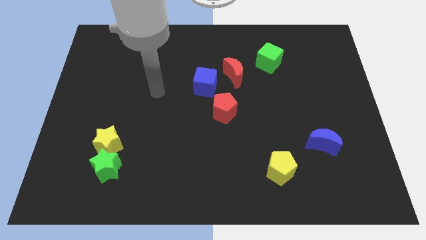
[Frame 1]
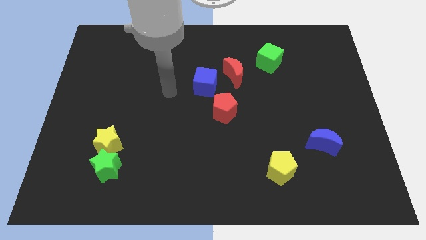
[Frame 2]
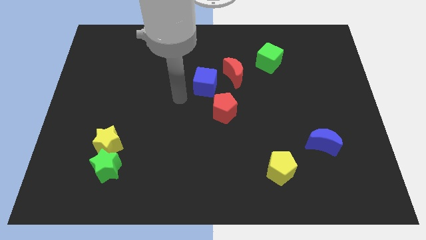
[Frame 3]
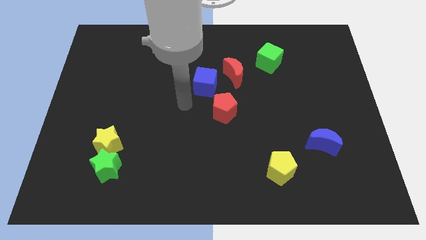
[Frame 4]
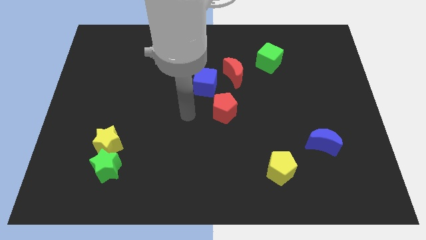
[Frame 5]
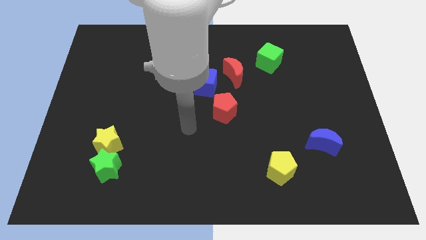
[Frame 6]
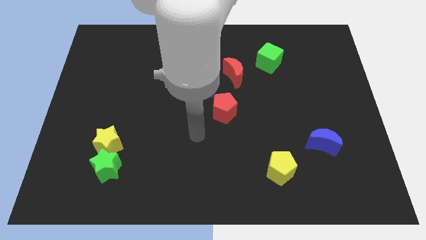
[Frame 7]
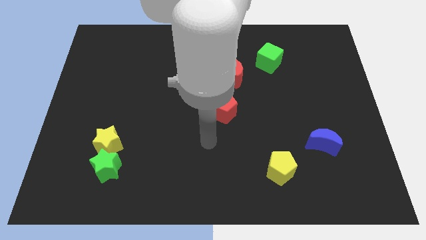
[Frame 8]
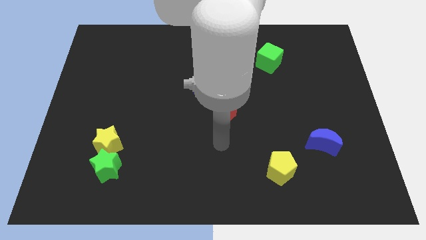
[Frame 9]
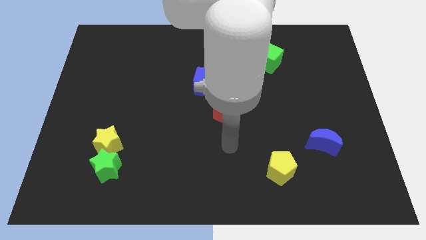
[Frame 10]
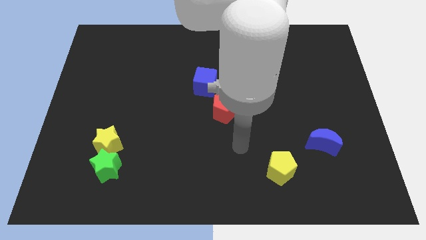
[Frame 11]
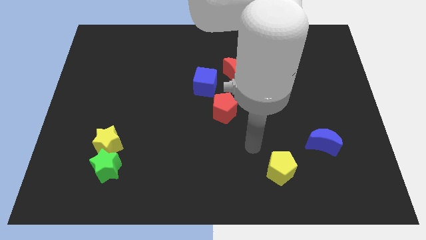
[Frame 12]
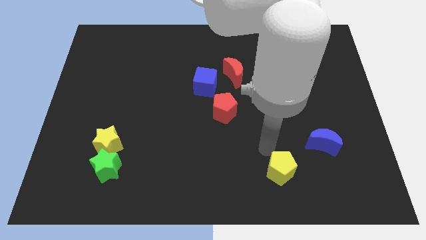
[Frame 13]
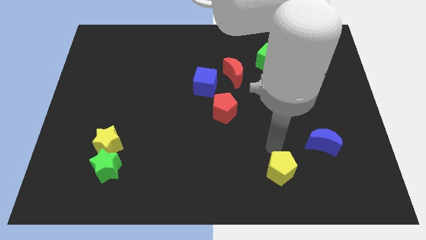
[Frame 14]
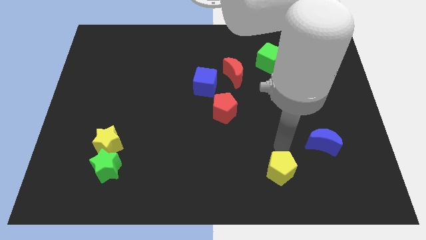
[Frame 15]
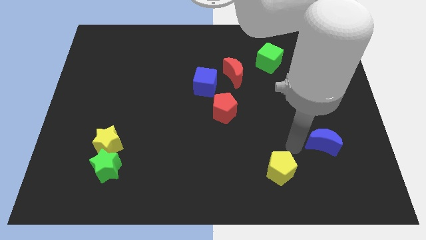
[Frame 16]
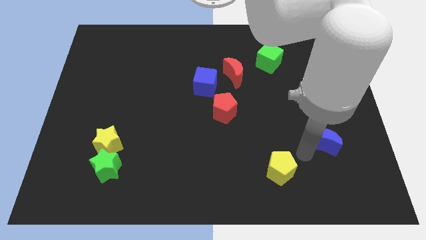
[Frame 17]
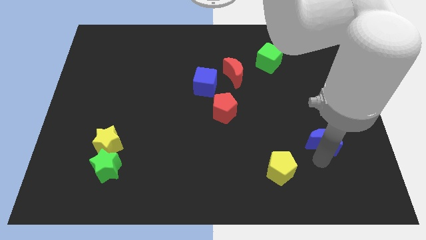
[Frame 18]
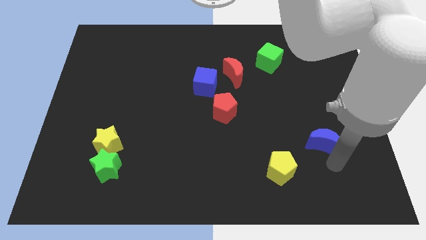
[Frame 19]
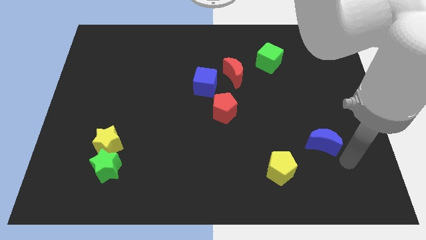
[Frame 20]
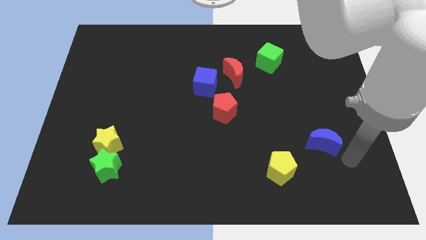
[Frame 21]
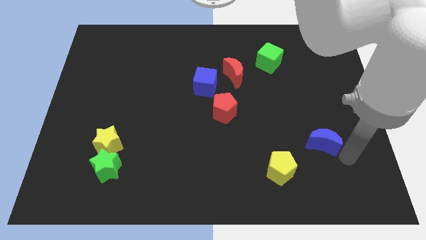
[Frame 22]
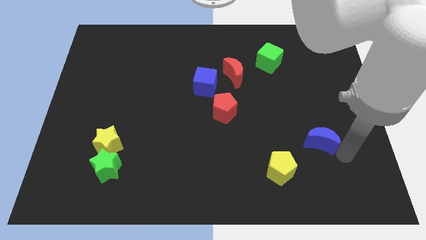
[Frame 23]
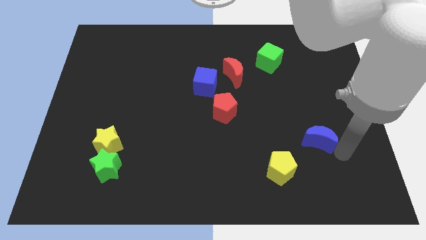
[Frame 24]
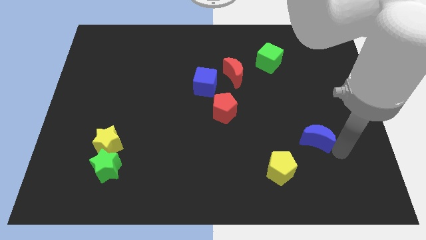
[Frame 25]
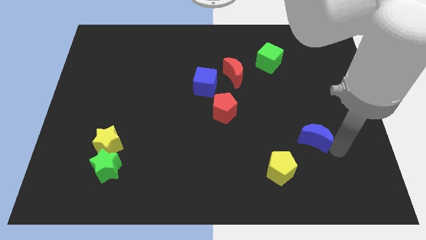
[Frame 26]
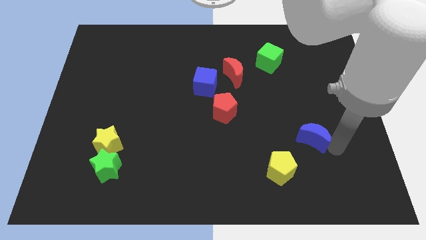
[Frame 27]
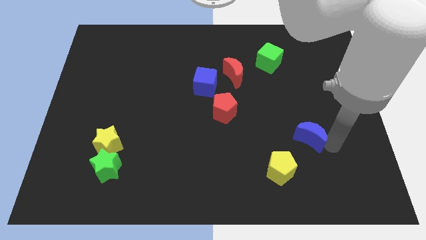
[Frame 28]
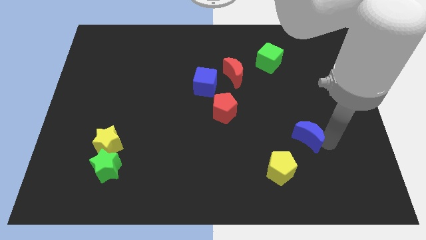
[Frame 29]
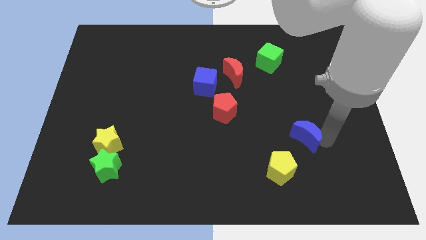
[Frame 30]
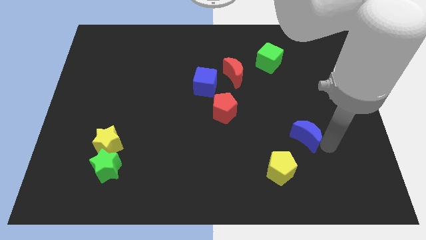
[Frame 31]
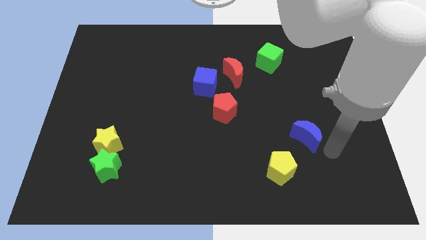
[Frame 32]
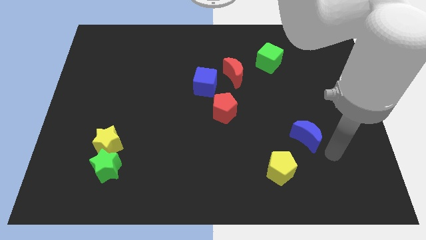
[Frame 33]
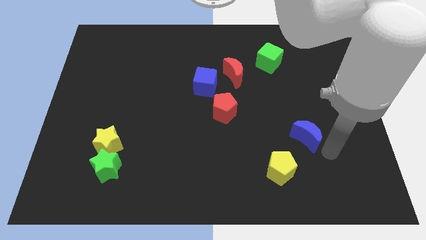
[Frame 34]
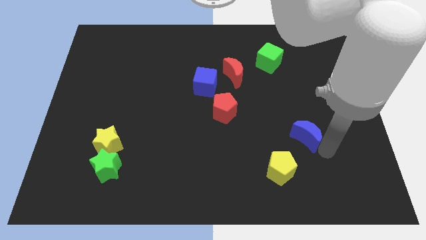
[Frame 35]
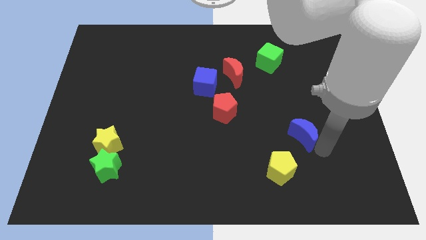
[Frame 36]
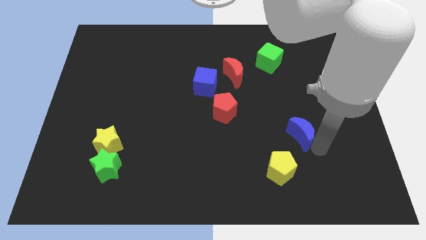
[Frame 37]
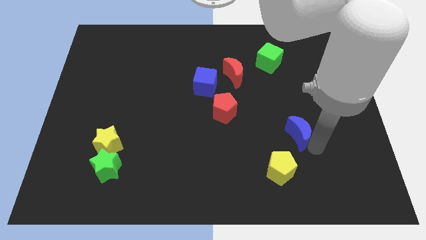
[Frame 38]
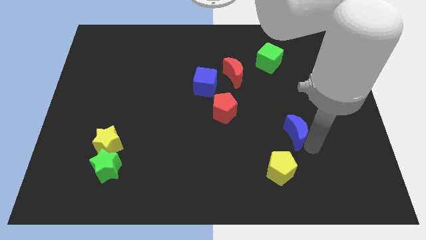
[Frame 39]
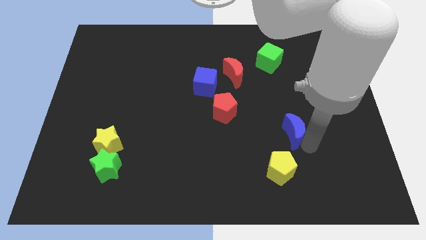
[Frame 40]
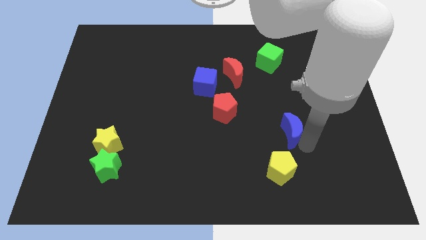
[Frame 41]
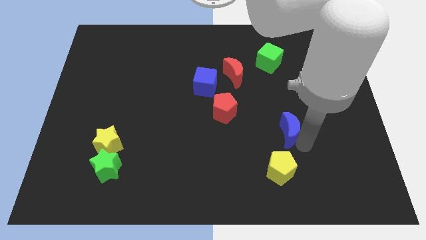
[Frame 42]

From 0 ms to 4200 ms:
slightly move the blue moon upwards and to the left diagonally

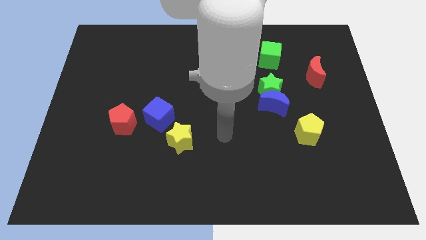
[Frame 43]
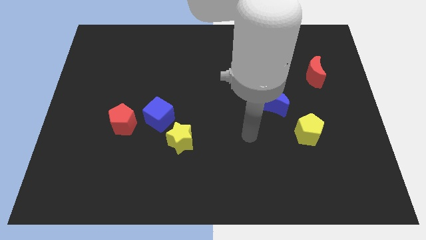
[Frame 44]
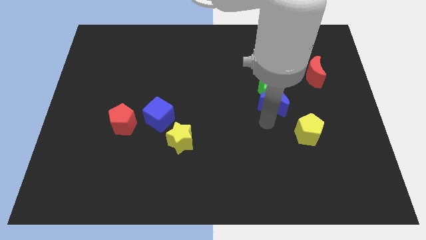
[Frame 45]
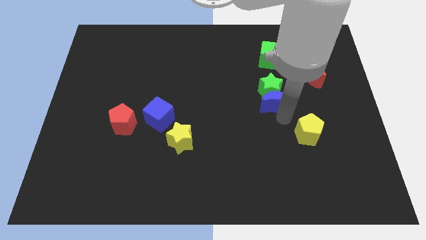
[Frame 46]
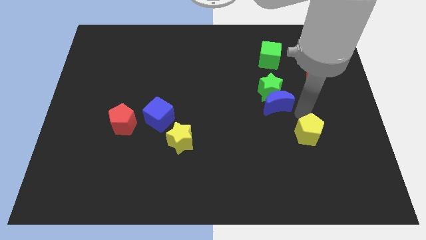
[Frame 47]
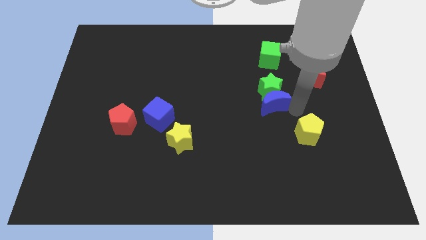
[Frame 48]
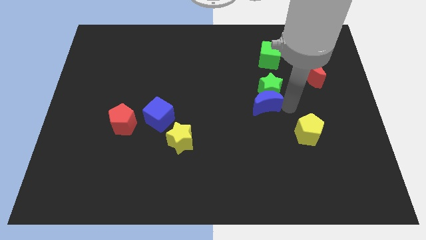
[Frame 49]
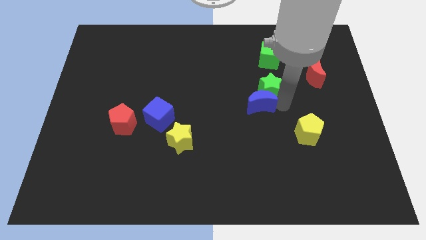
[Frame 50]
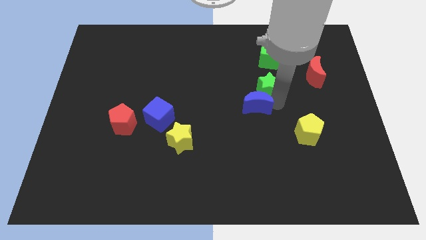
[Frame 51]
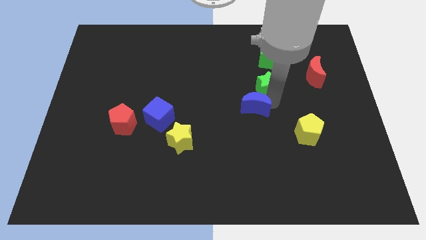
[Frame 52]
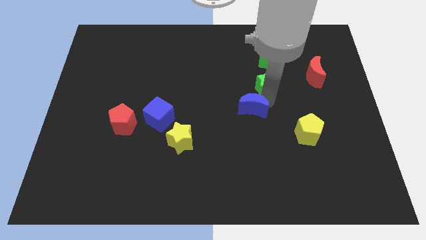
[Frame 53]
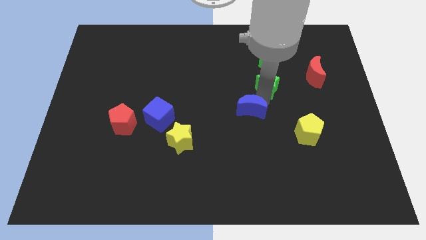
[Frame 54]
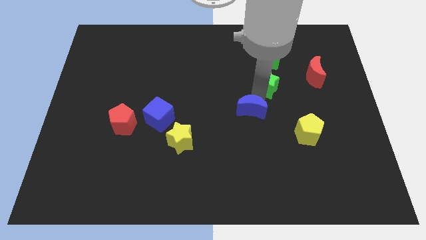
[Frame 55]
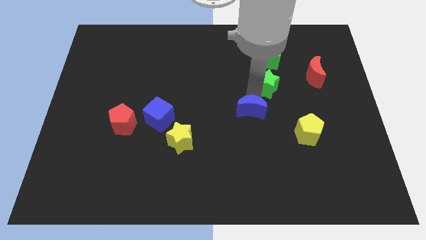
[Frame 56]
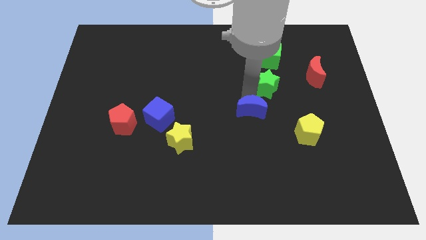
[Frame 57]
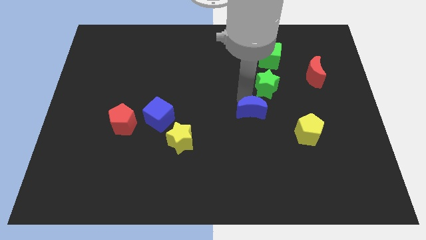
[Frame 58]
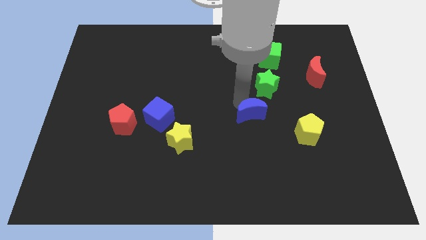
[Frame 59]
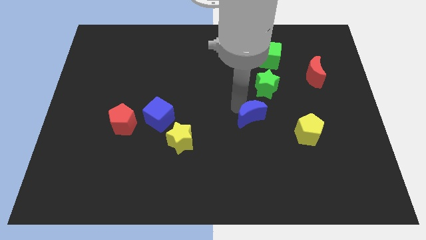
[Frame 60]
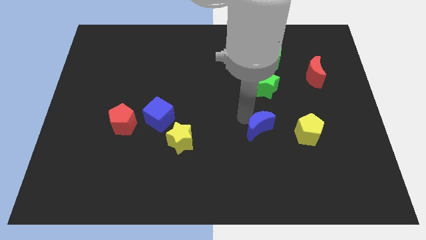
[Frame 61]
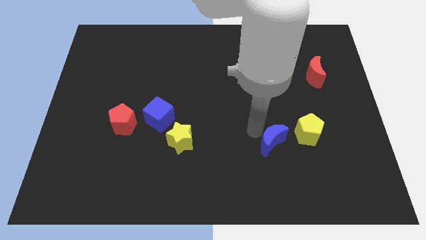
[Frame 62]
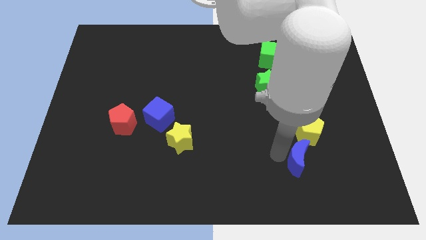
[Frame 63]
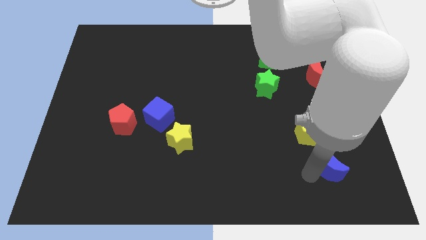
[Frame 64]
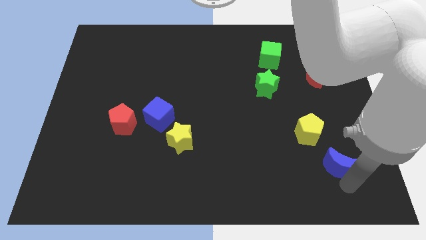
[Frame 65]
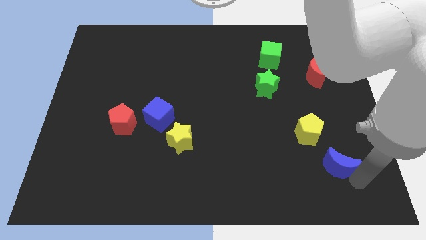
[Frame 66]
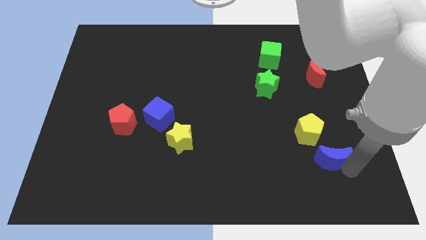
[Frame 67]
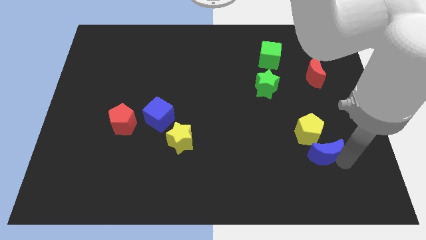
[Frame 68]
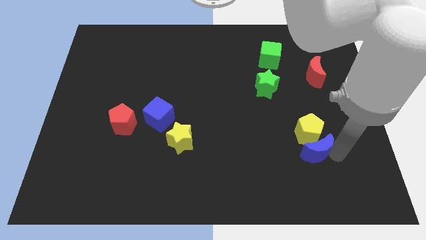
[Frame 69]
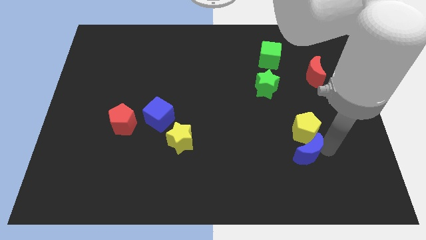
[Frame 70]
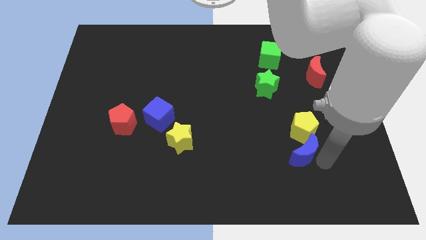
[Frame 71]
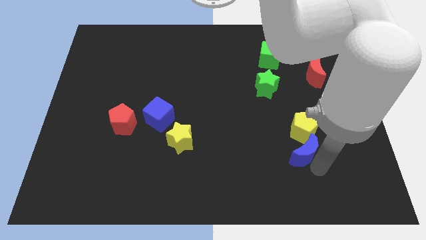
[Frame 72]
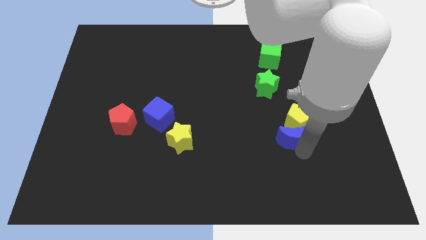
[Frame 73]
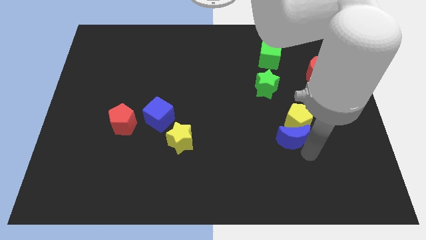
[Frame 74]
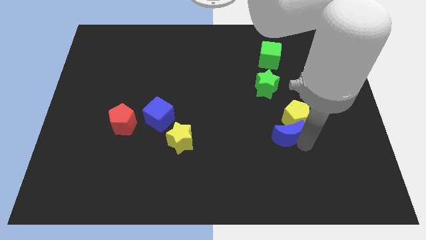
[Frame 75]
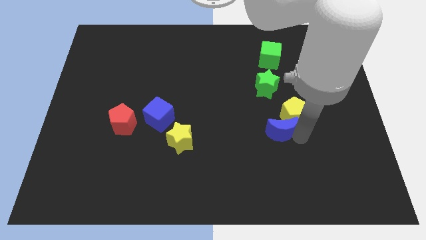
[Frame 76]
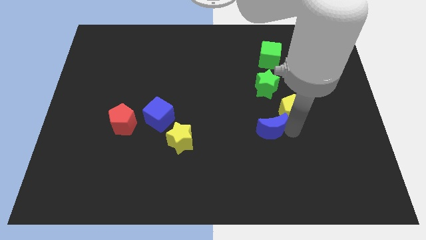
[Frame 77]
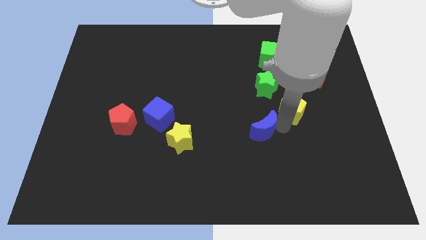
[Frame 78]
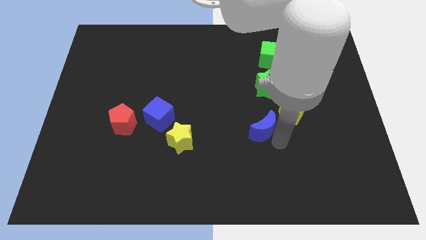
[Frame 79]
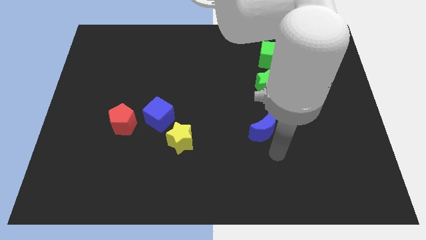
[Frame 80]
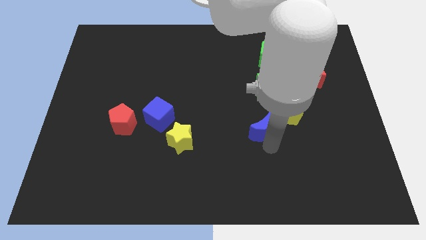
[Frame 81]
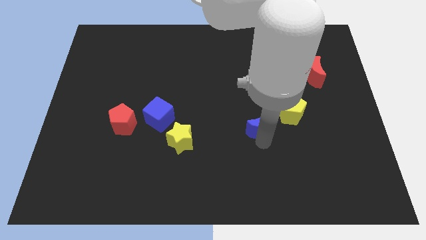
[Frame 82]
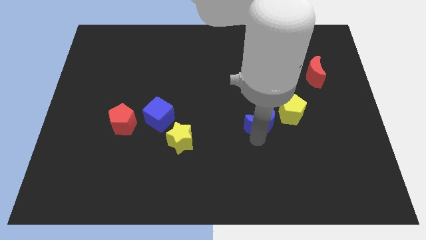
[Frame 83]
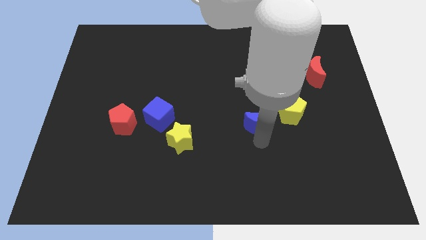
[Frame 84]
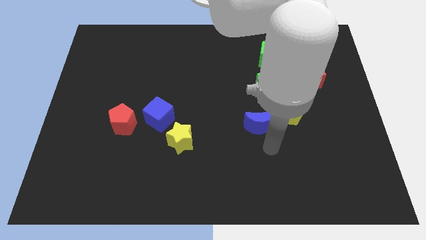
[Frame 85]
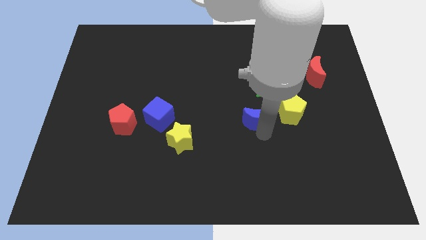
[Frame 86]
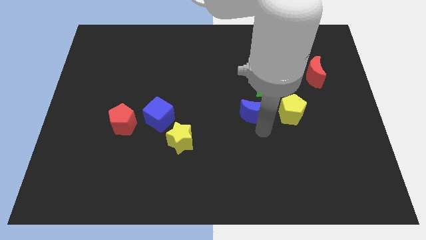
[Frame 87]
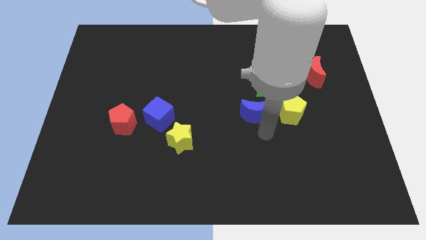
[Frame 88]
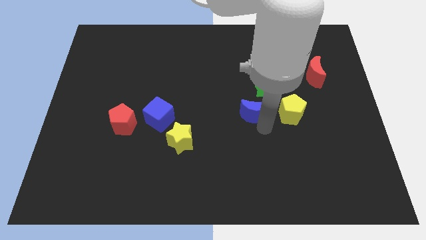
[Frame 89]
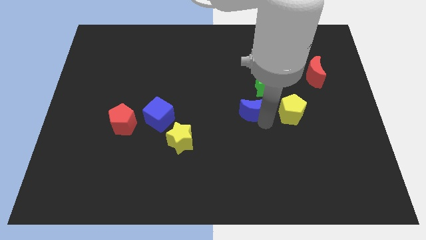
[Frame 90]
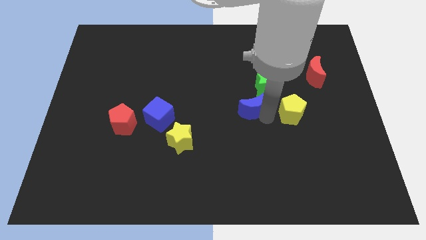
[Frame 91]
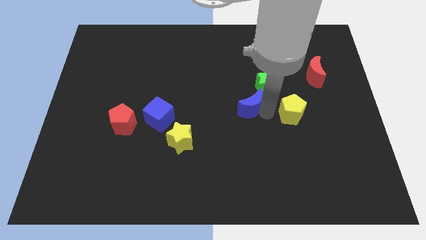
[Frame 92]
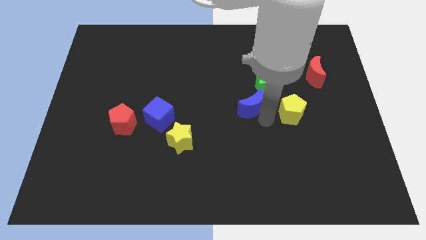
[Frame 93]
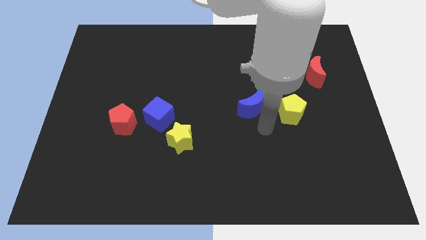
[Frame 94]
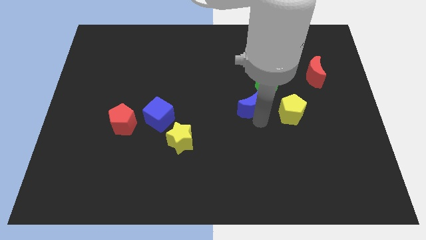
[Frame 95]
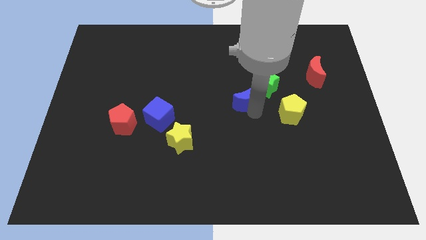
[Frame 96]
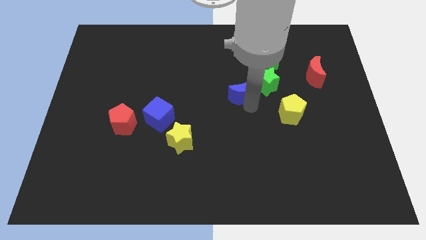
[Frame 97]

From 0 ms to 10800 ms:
move the blue moon a bit up and left
